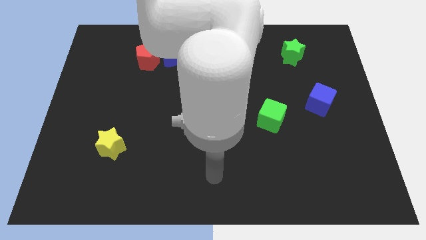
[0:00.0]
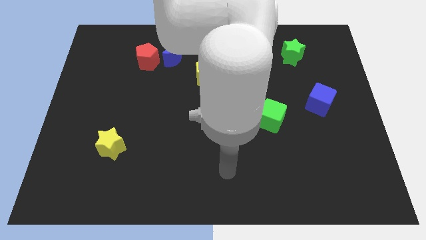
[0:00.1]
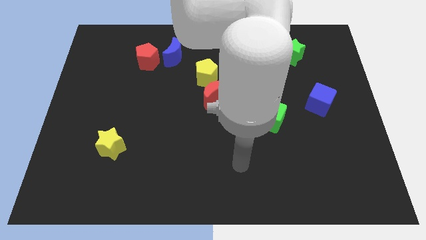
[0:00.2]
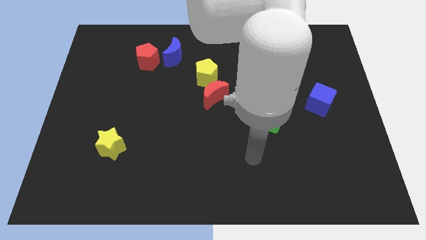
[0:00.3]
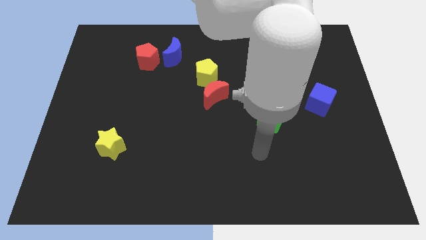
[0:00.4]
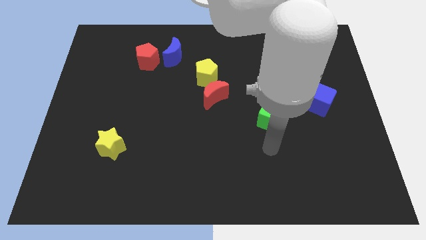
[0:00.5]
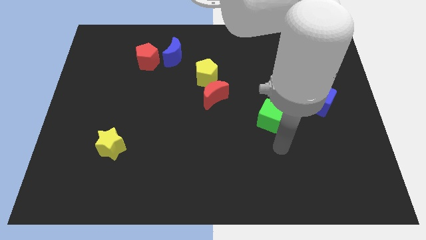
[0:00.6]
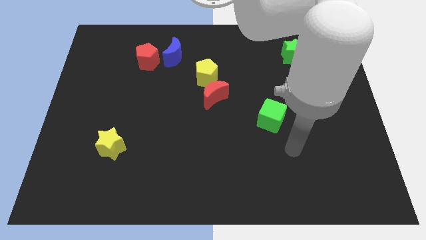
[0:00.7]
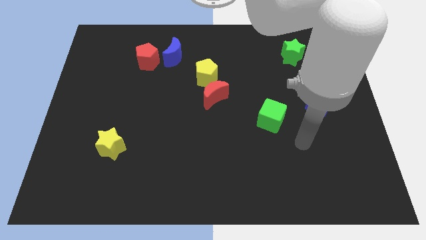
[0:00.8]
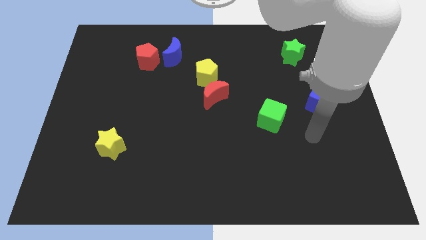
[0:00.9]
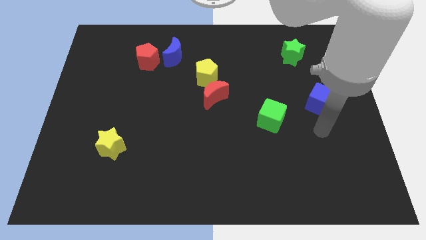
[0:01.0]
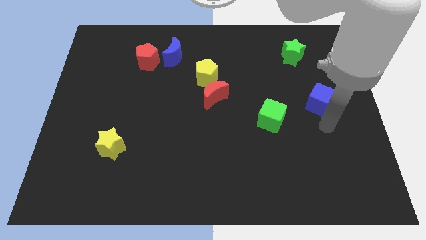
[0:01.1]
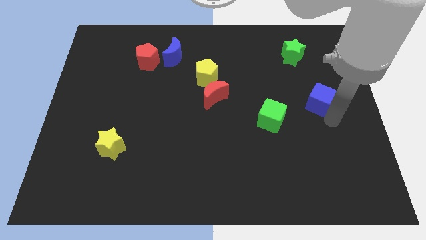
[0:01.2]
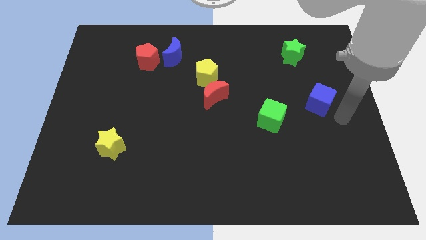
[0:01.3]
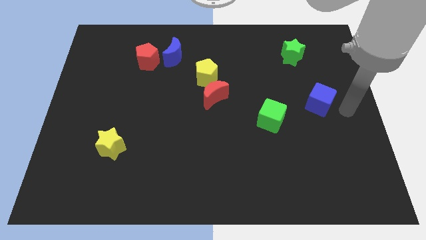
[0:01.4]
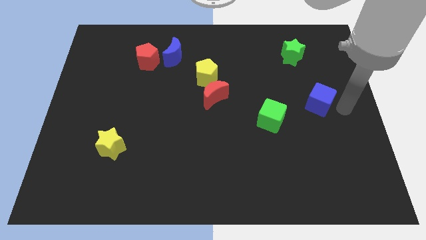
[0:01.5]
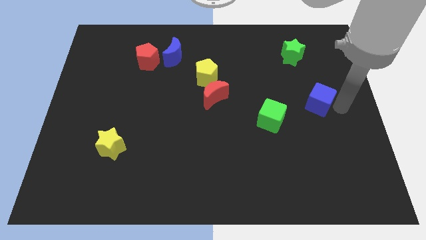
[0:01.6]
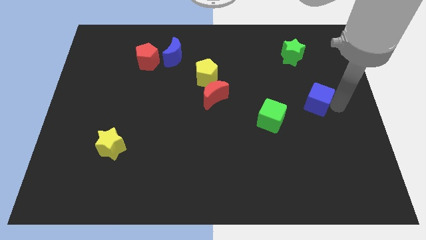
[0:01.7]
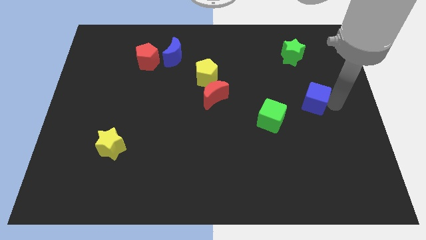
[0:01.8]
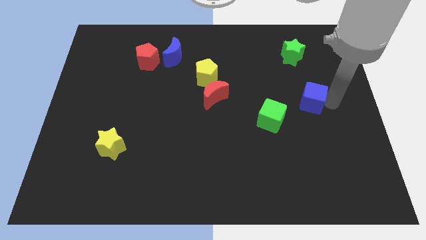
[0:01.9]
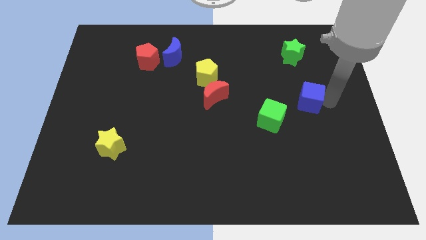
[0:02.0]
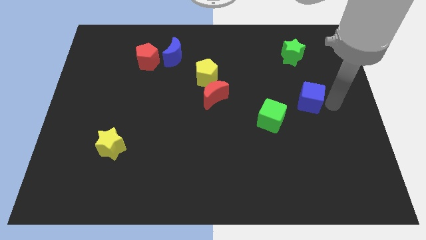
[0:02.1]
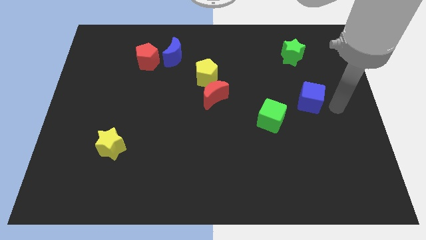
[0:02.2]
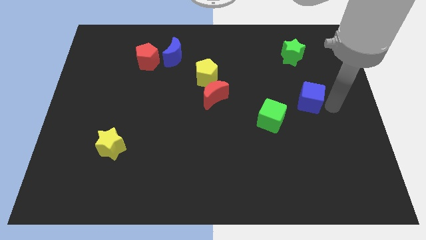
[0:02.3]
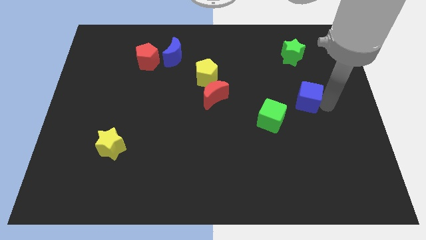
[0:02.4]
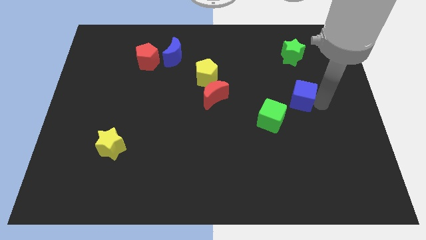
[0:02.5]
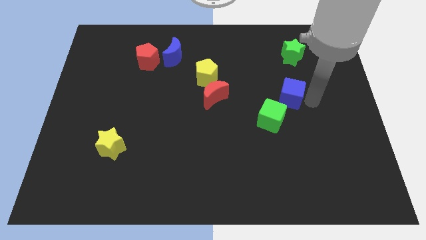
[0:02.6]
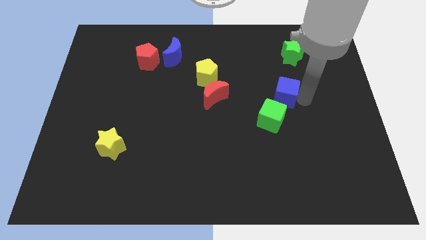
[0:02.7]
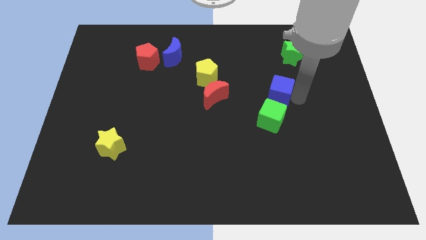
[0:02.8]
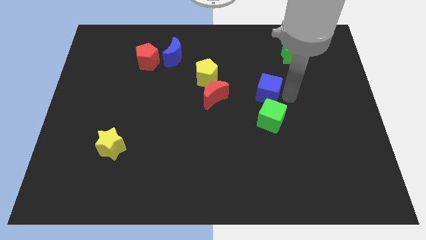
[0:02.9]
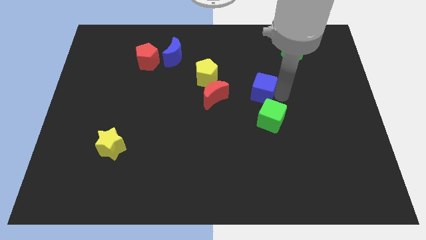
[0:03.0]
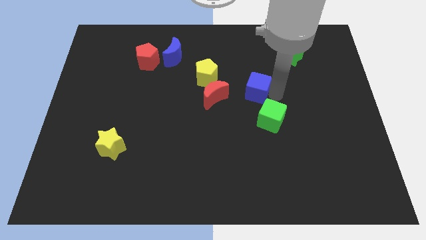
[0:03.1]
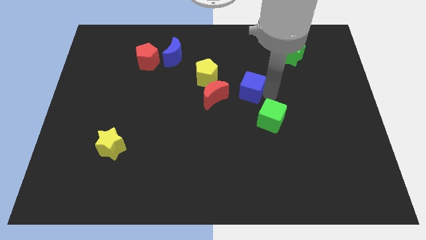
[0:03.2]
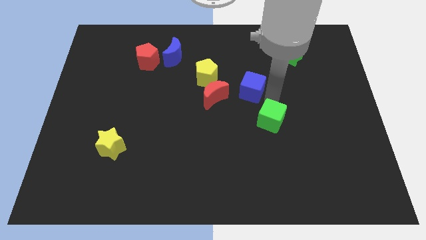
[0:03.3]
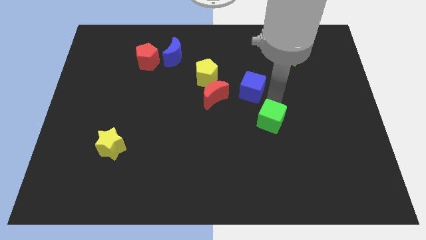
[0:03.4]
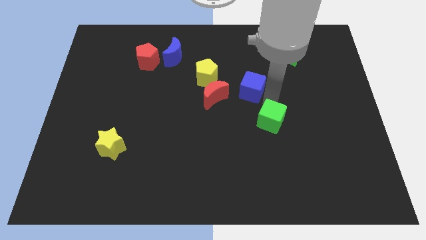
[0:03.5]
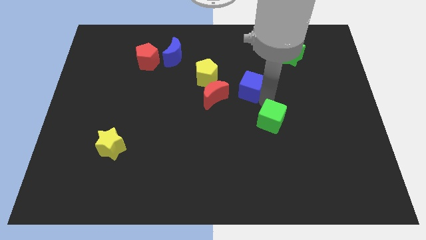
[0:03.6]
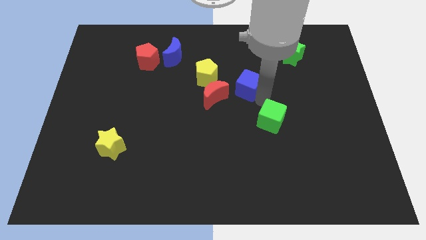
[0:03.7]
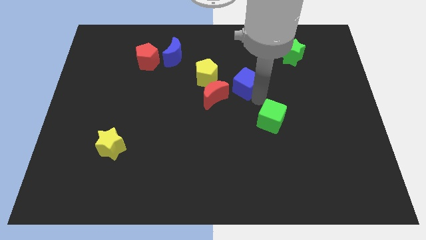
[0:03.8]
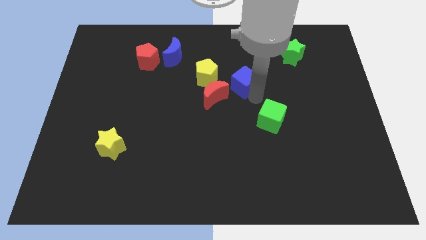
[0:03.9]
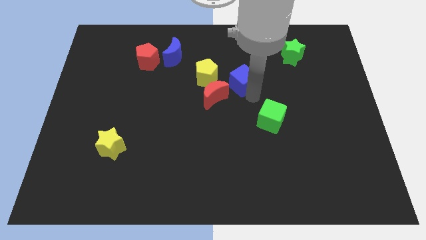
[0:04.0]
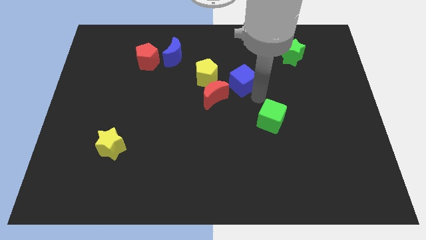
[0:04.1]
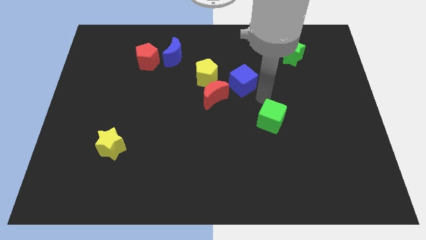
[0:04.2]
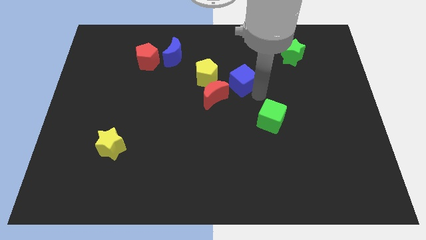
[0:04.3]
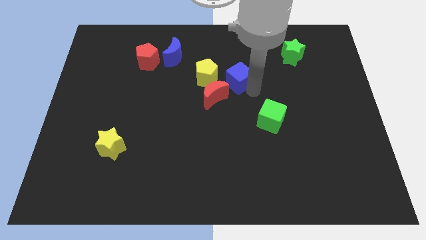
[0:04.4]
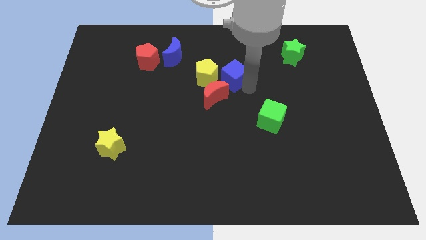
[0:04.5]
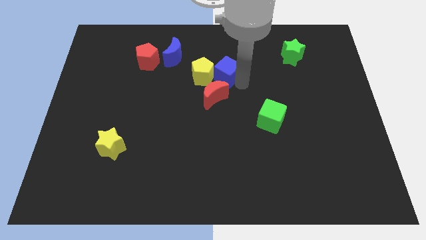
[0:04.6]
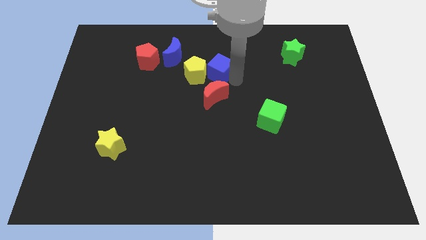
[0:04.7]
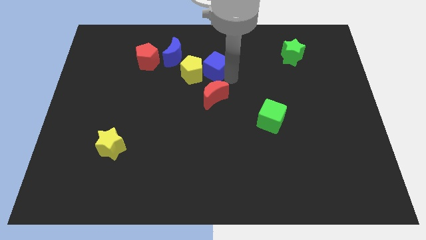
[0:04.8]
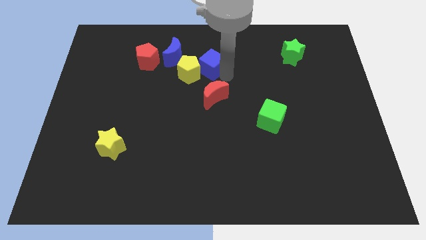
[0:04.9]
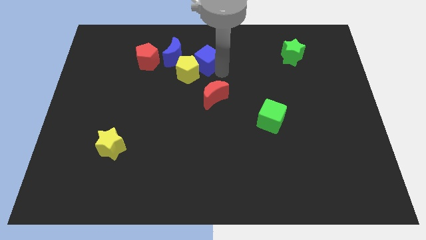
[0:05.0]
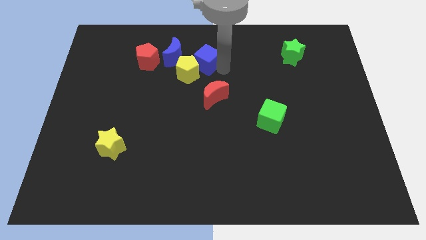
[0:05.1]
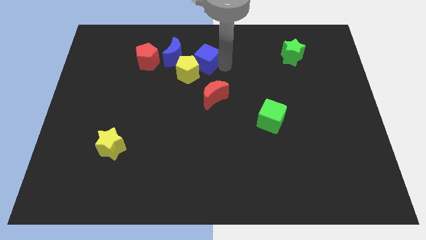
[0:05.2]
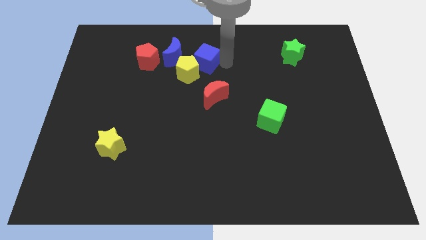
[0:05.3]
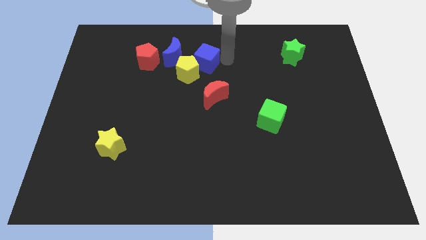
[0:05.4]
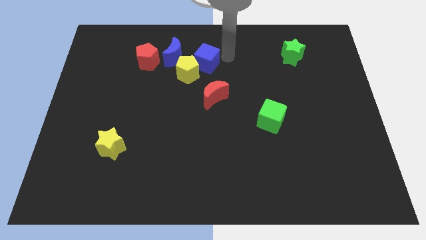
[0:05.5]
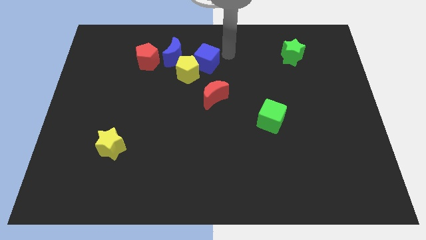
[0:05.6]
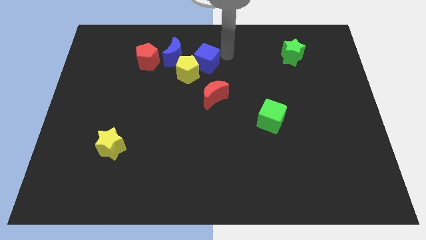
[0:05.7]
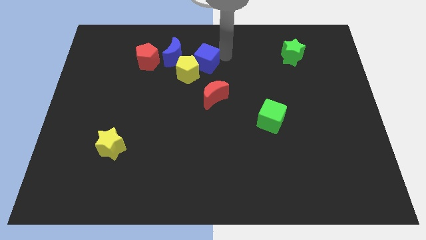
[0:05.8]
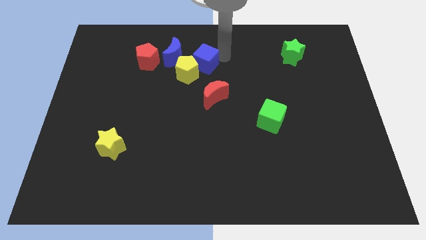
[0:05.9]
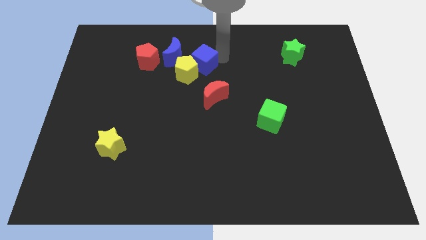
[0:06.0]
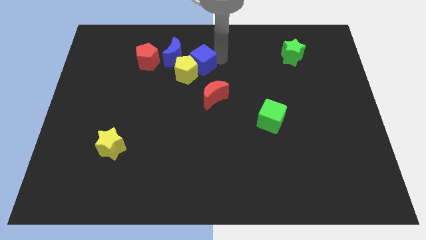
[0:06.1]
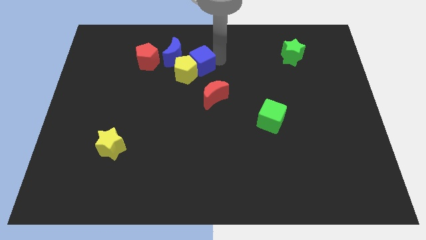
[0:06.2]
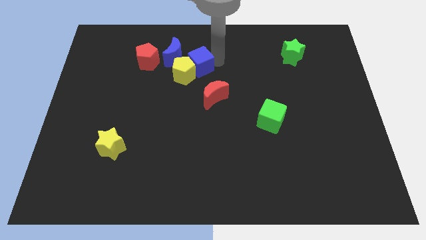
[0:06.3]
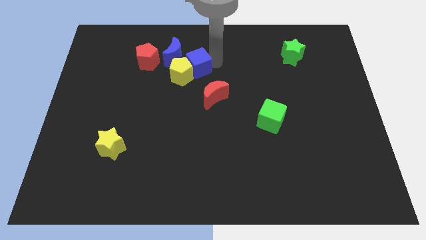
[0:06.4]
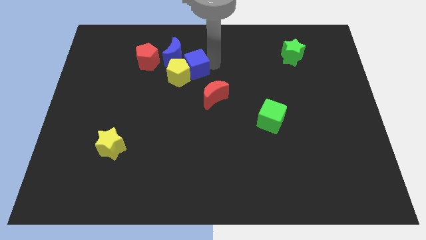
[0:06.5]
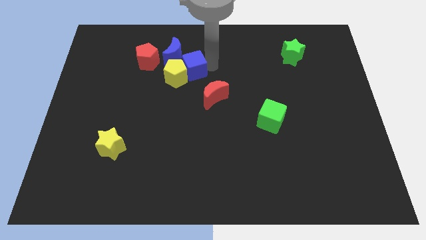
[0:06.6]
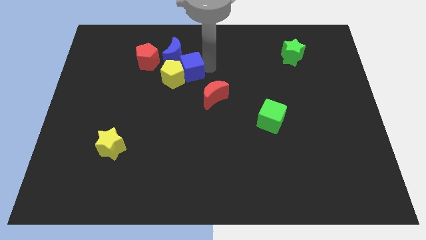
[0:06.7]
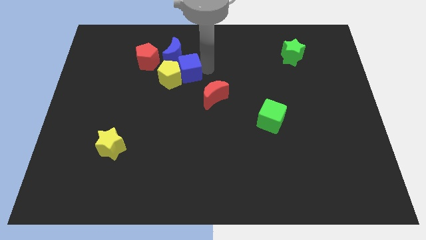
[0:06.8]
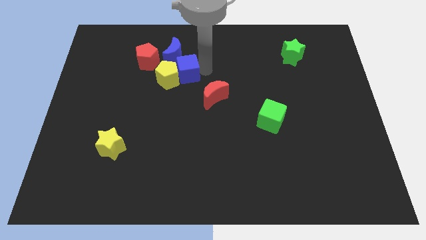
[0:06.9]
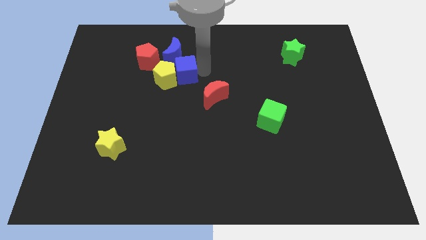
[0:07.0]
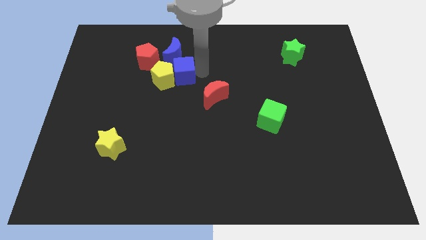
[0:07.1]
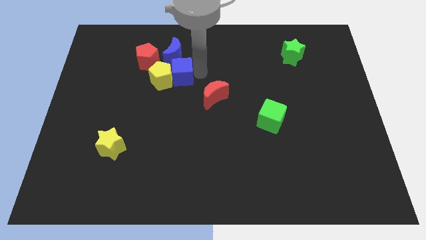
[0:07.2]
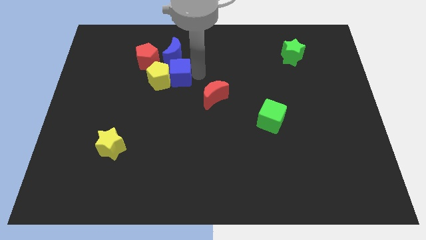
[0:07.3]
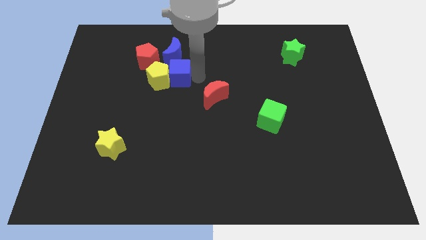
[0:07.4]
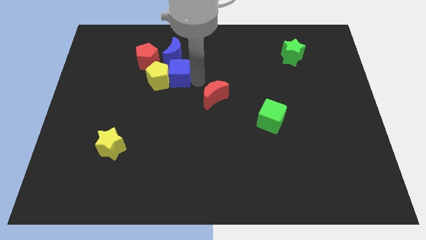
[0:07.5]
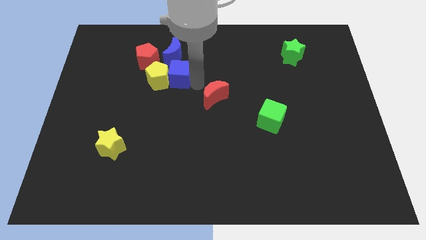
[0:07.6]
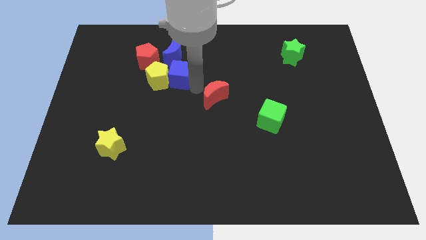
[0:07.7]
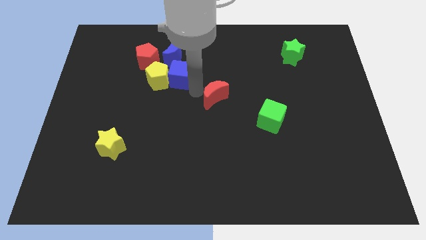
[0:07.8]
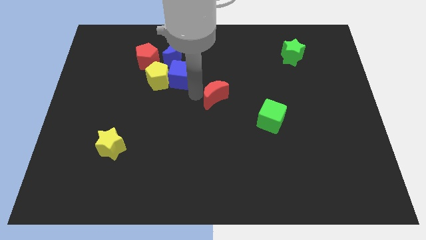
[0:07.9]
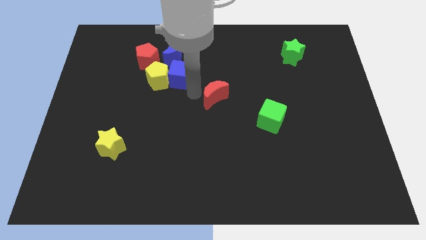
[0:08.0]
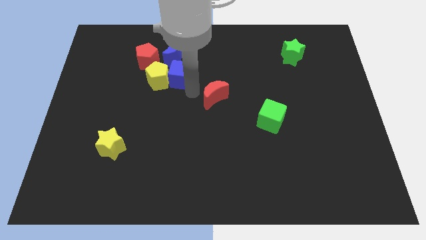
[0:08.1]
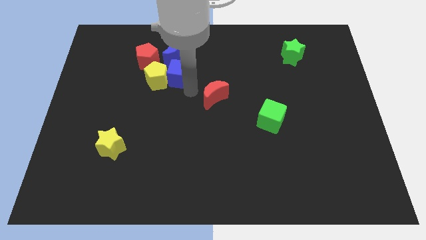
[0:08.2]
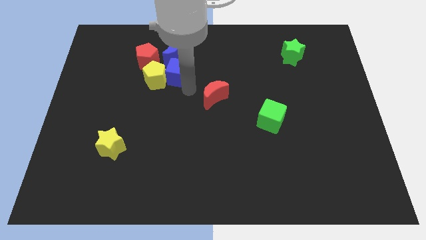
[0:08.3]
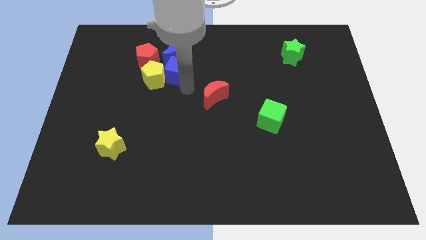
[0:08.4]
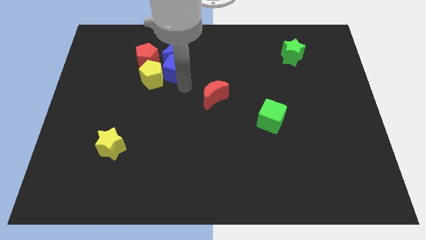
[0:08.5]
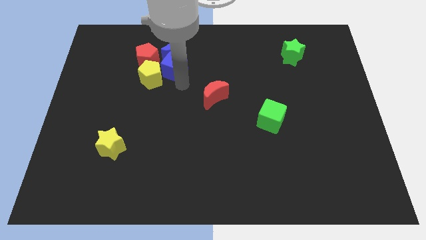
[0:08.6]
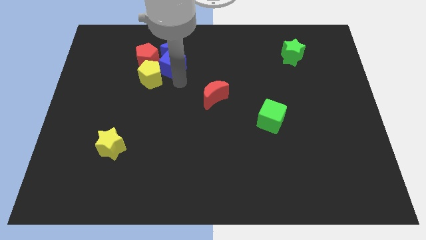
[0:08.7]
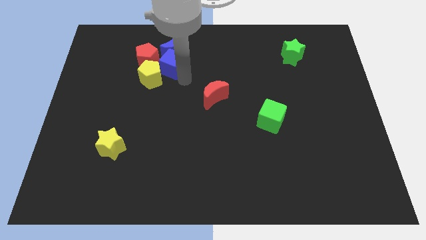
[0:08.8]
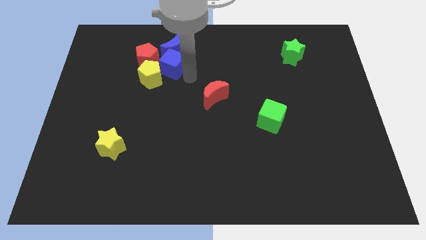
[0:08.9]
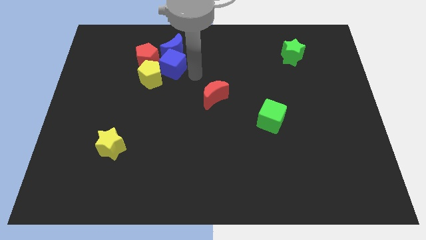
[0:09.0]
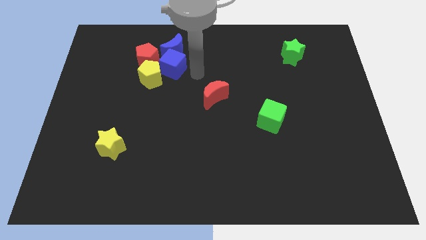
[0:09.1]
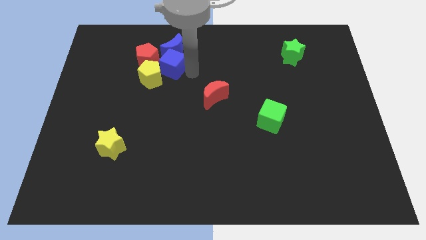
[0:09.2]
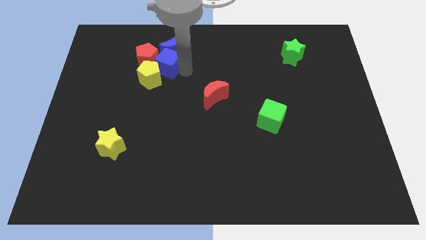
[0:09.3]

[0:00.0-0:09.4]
push the blue cube to the red pentagon
